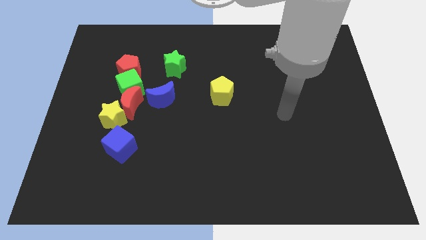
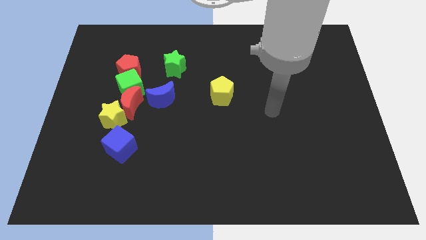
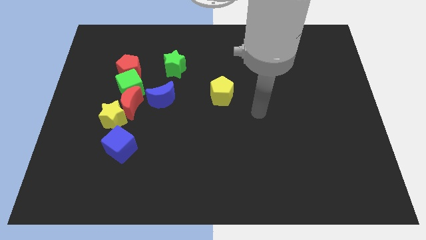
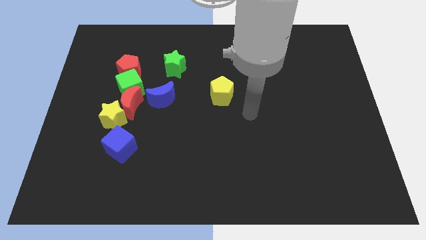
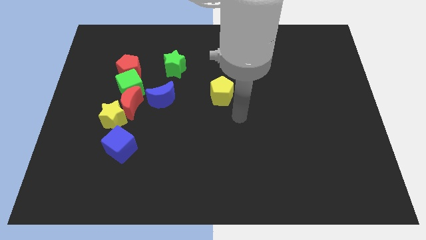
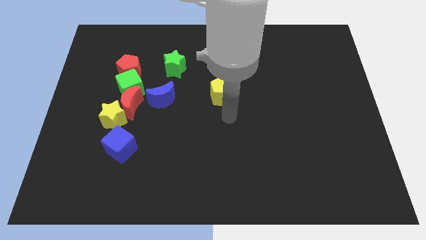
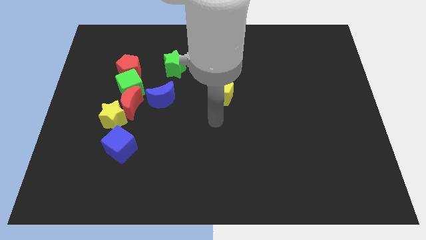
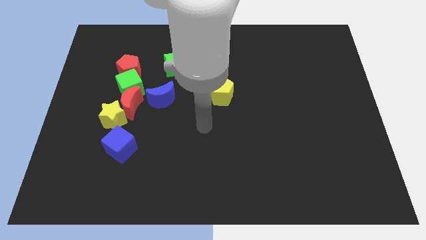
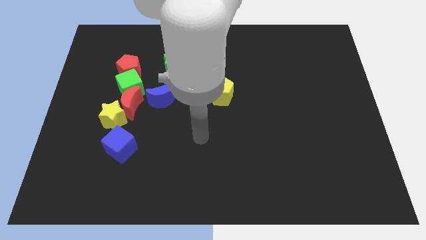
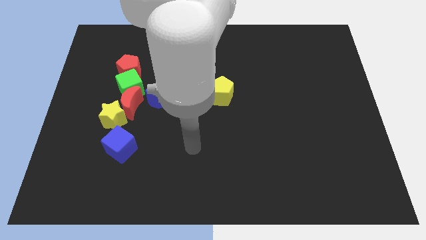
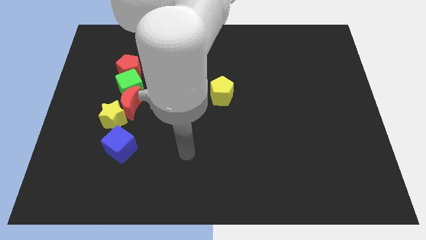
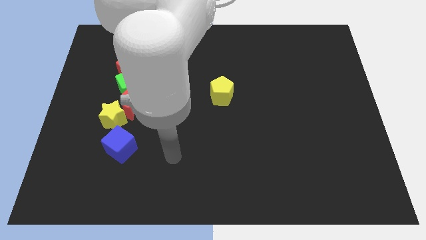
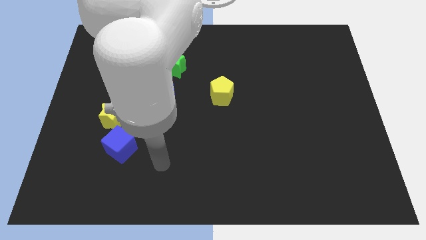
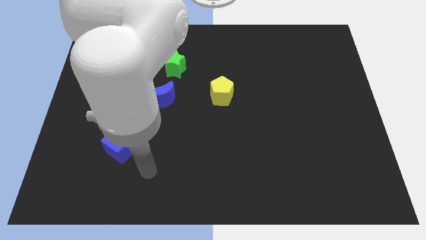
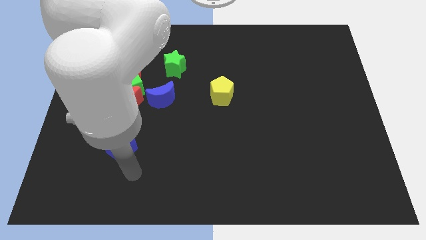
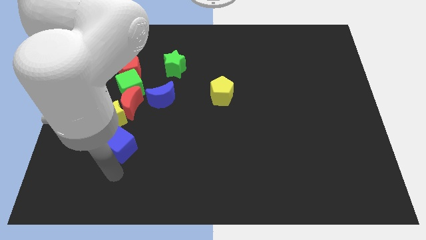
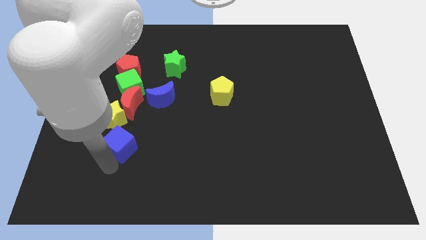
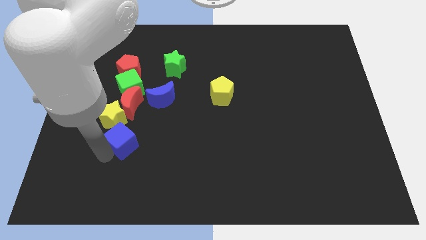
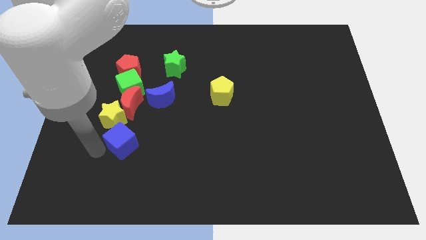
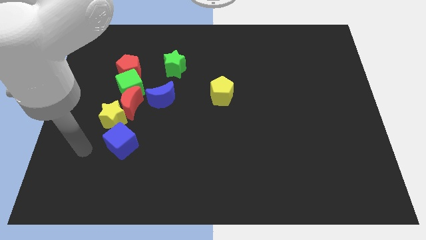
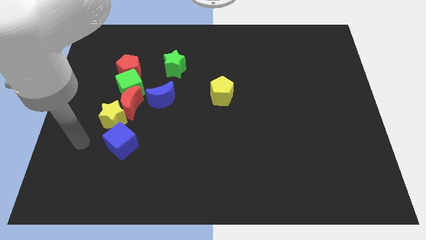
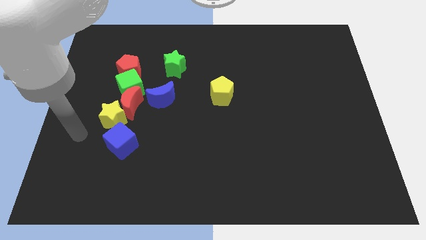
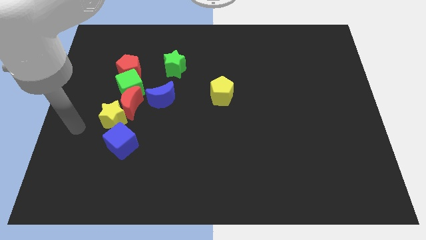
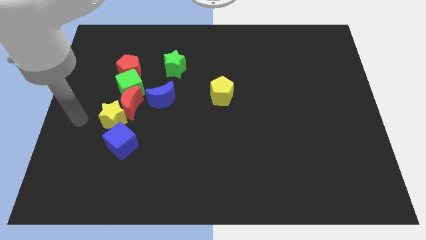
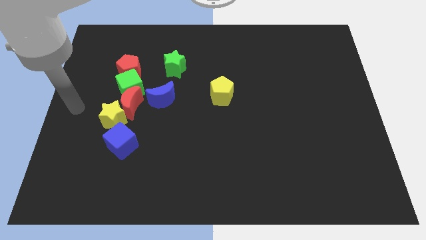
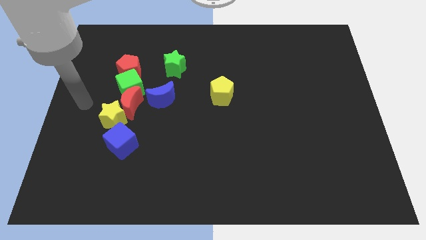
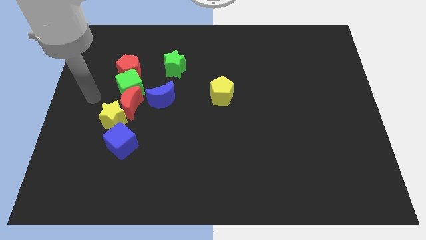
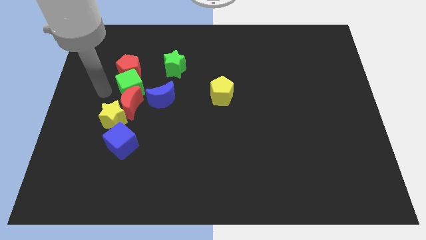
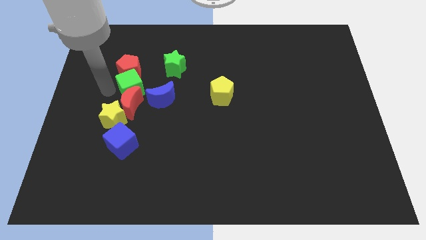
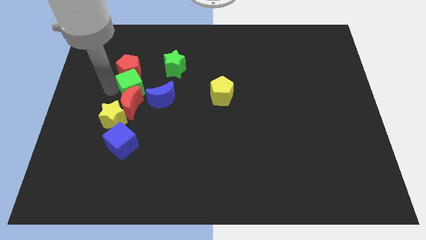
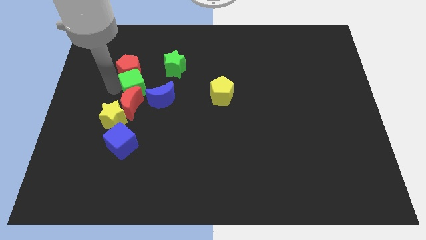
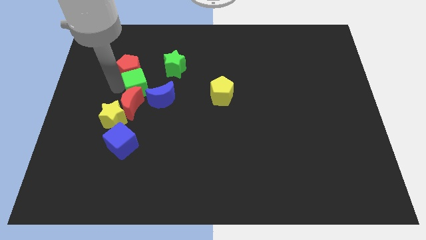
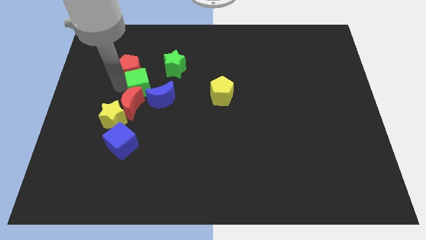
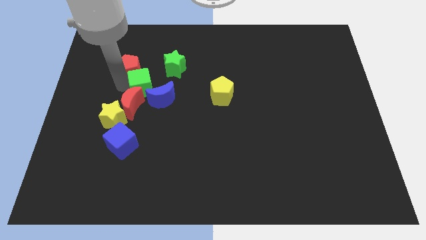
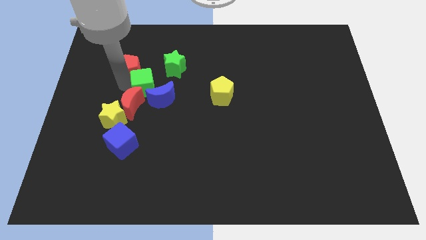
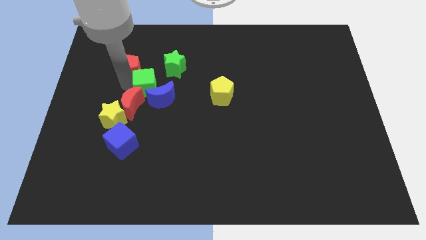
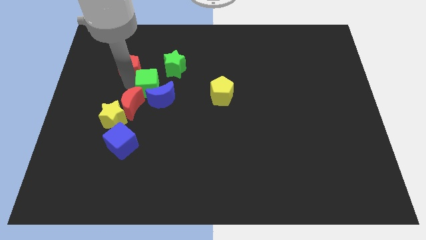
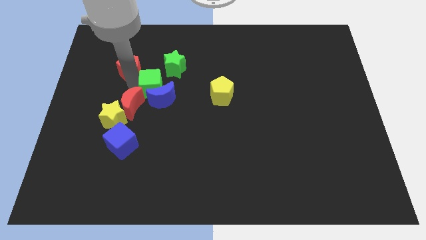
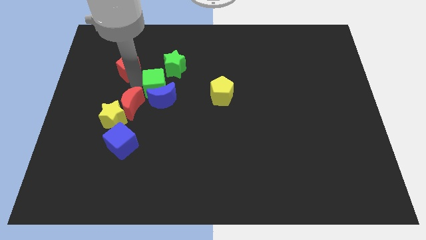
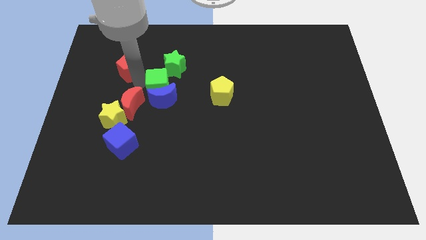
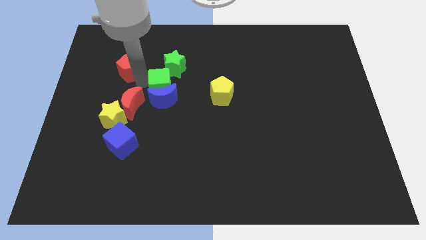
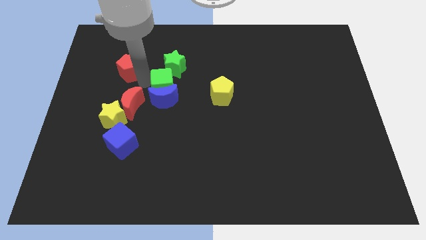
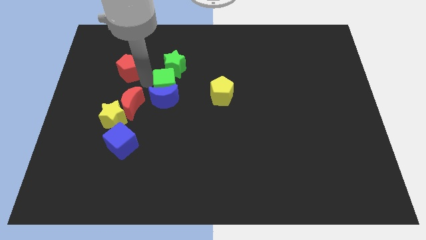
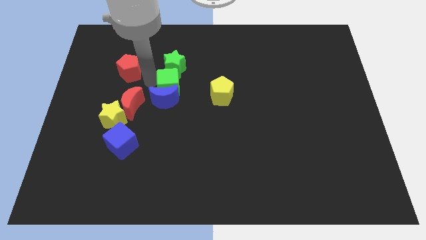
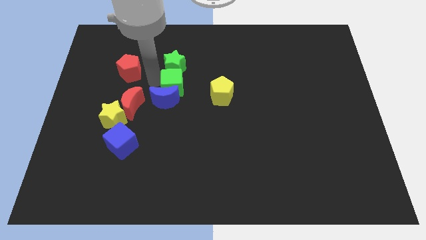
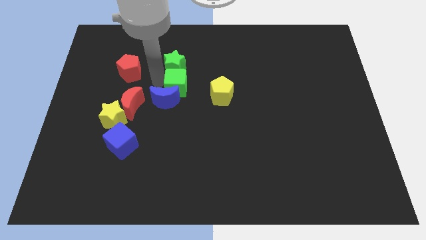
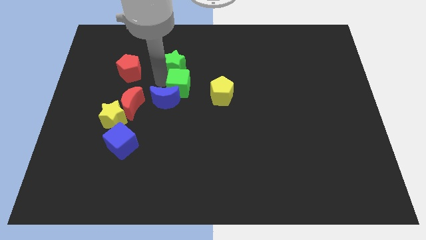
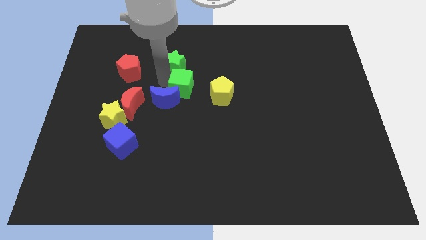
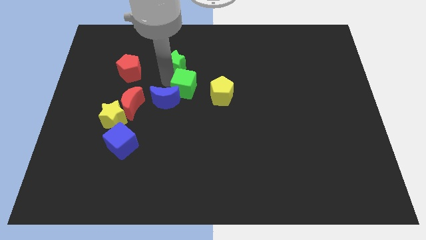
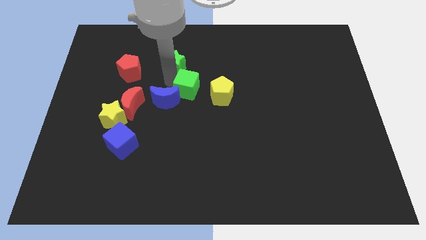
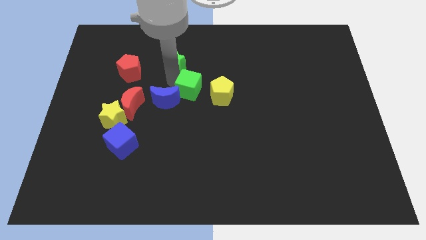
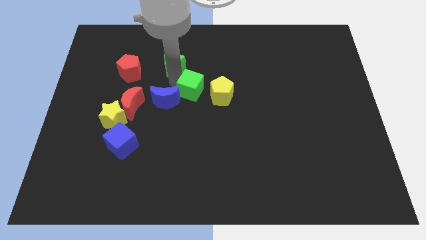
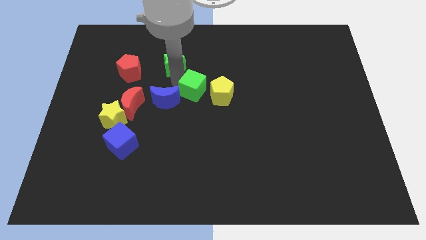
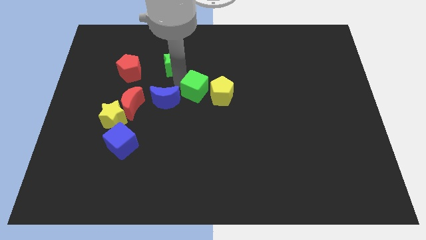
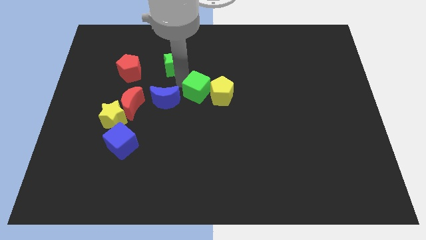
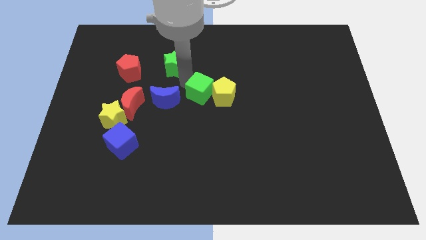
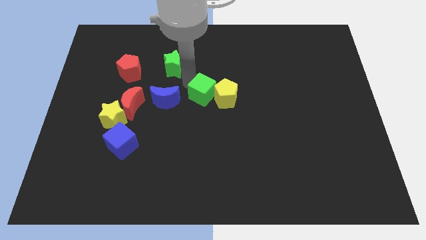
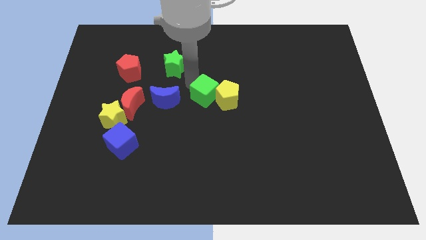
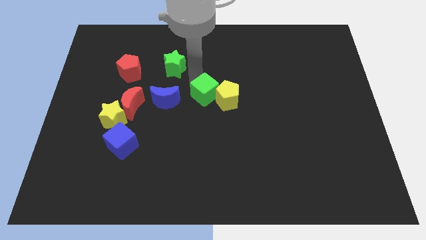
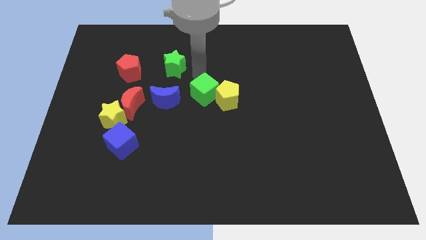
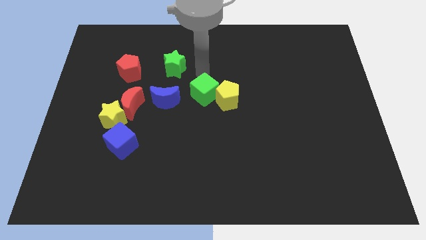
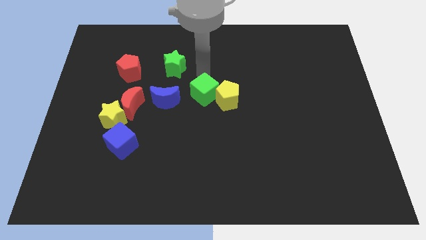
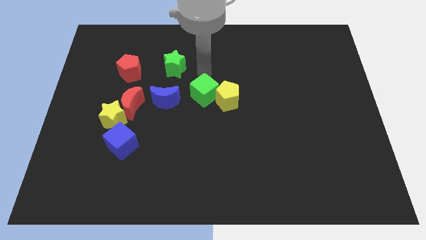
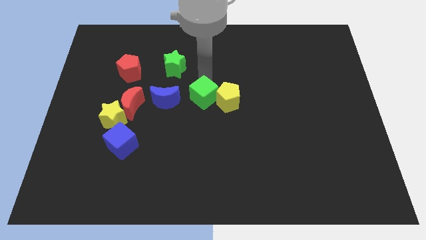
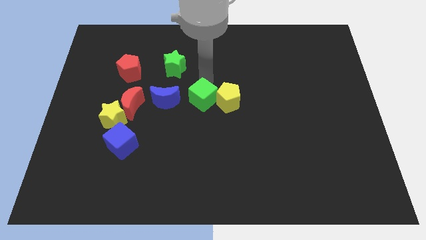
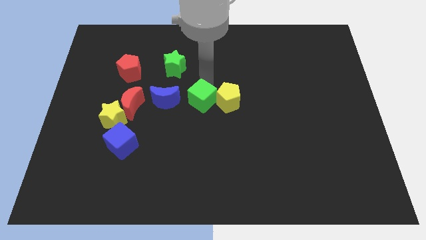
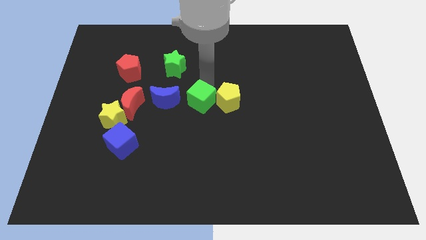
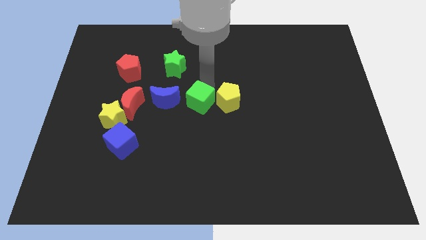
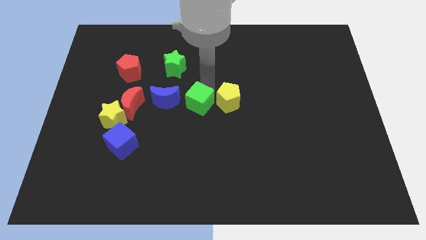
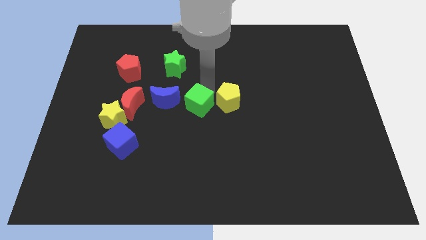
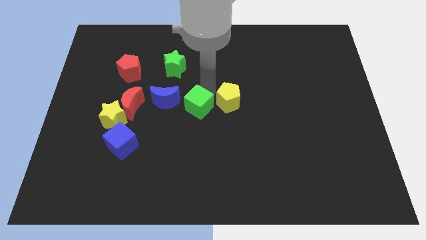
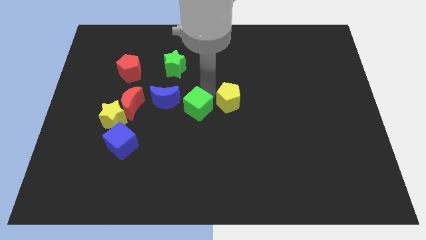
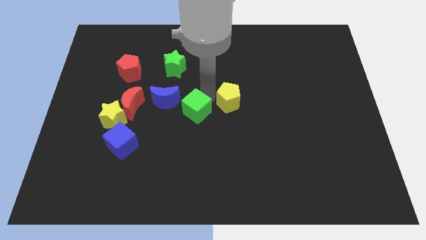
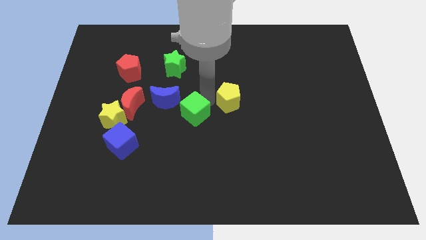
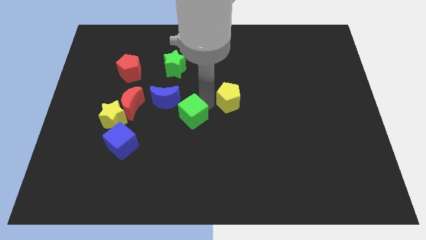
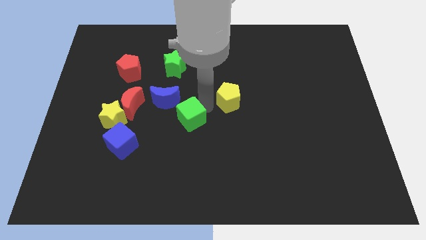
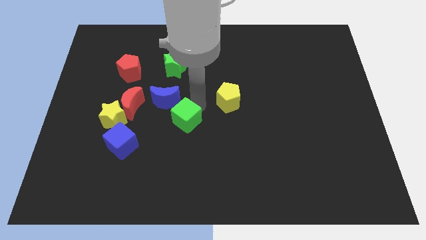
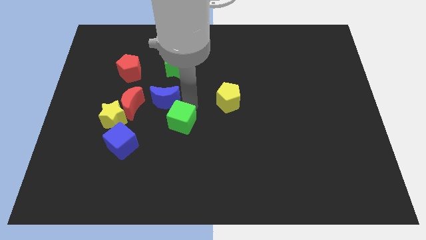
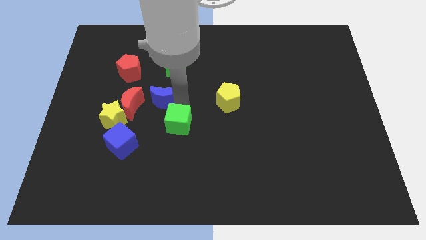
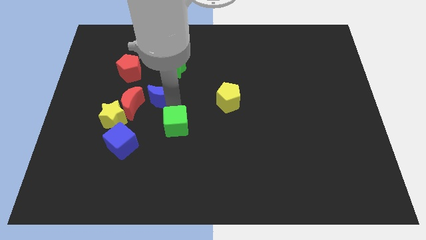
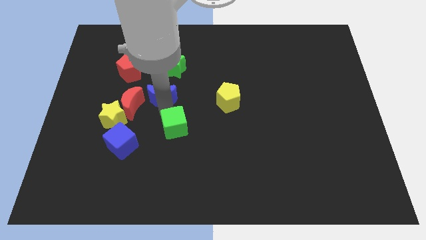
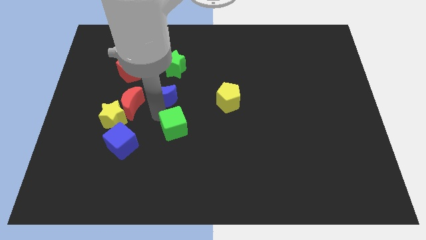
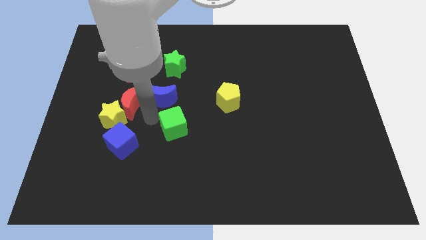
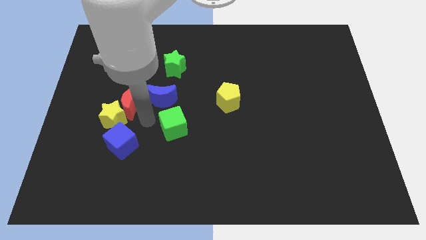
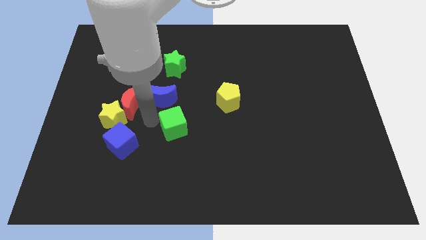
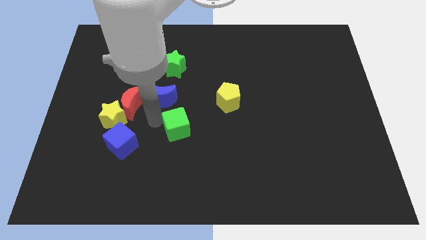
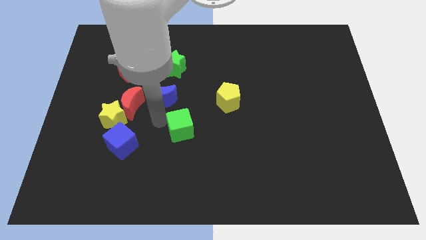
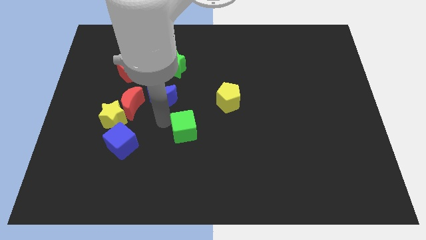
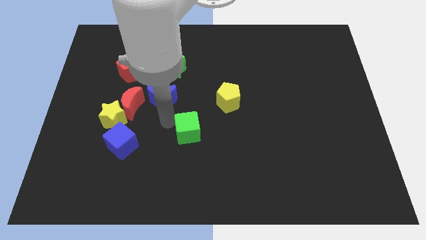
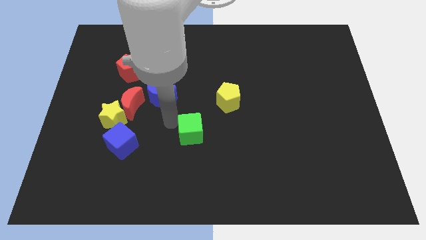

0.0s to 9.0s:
move the green cube down and right
